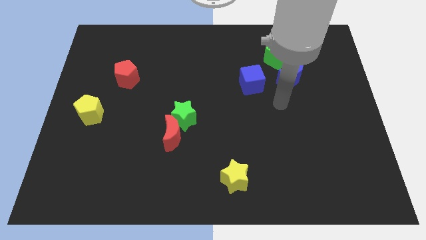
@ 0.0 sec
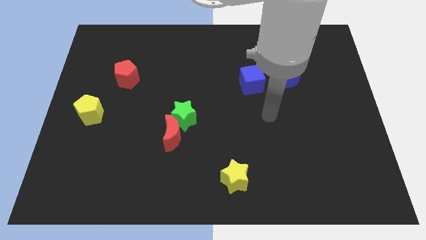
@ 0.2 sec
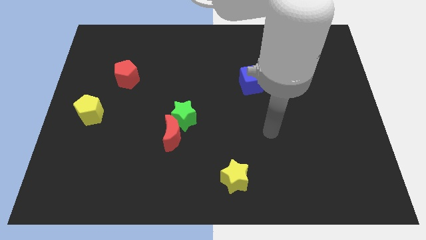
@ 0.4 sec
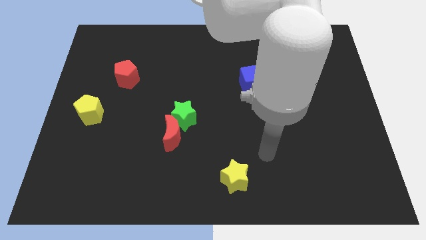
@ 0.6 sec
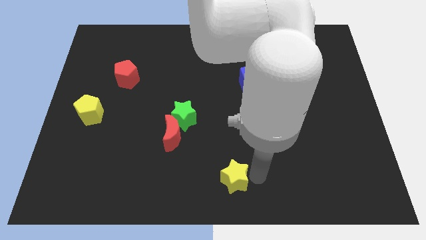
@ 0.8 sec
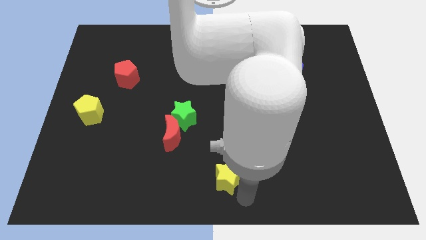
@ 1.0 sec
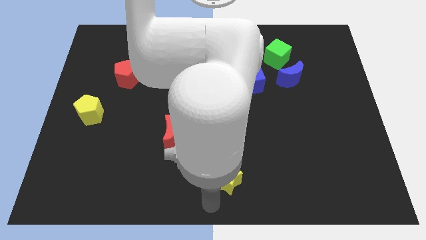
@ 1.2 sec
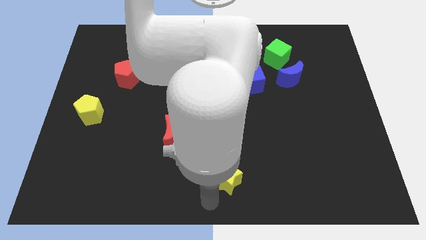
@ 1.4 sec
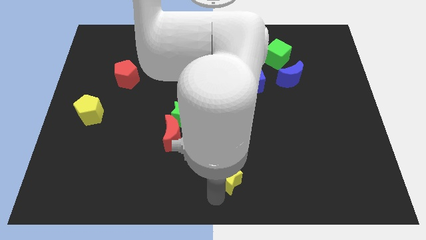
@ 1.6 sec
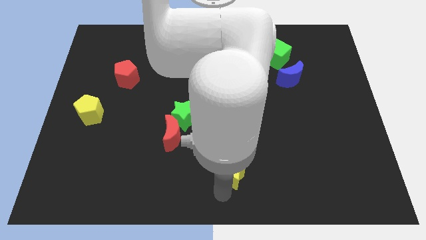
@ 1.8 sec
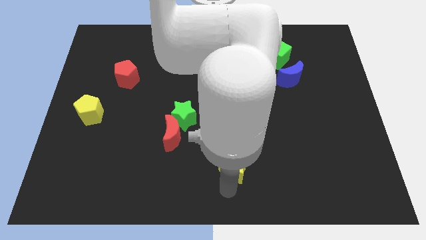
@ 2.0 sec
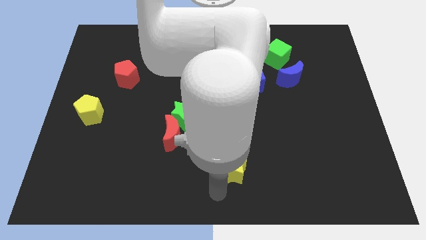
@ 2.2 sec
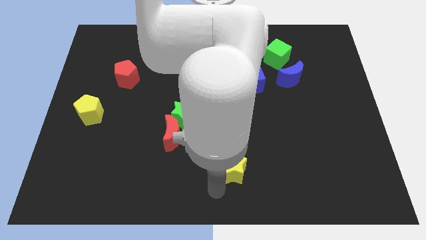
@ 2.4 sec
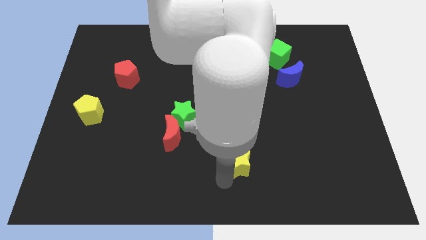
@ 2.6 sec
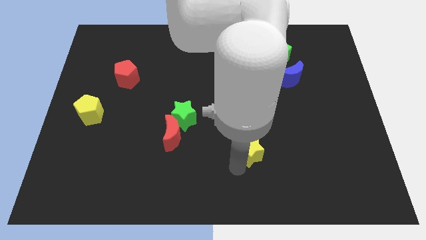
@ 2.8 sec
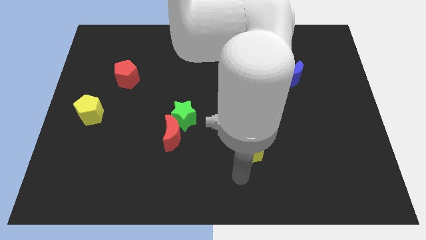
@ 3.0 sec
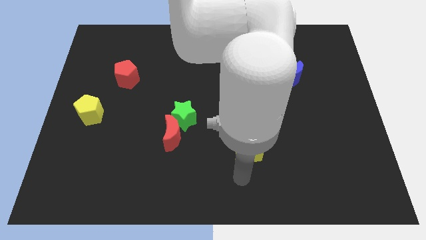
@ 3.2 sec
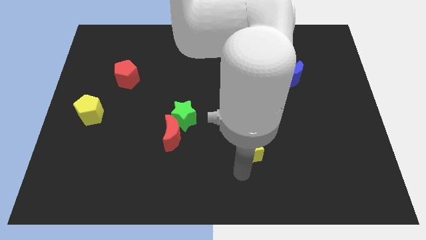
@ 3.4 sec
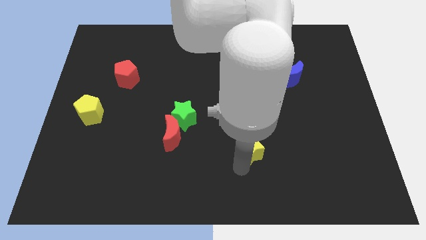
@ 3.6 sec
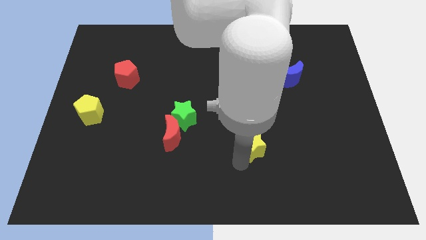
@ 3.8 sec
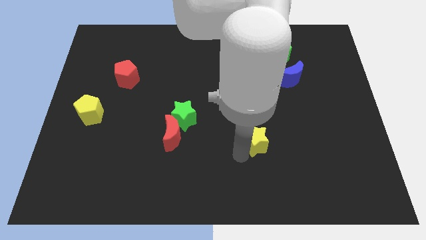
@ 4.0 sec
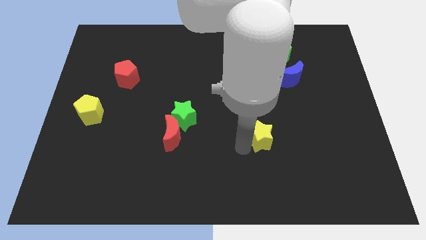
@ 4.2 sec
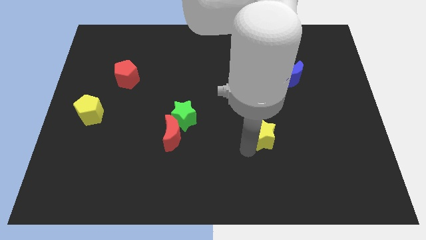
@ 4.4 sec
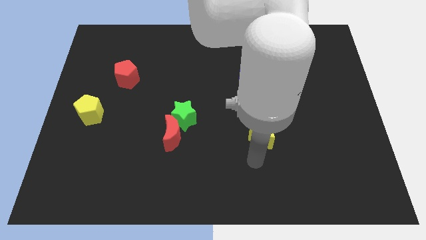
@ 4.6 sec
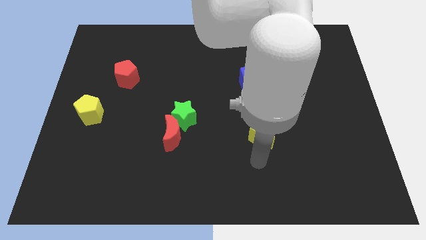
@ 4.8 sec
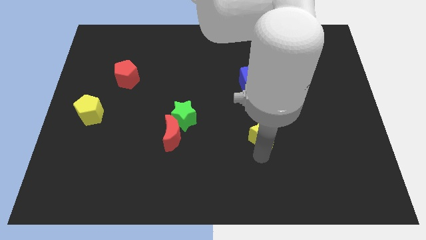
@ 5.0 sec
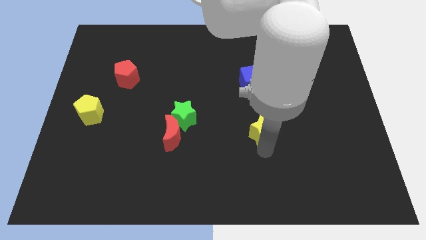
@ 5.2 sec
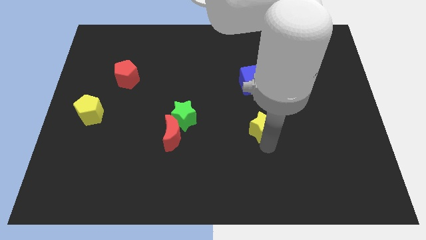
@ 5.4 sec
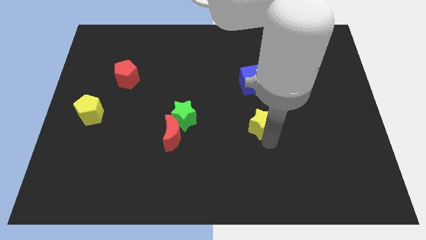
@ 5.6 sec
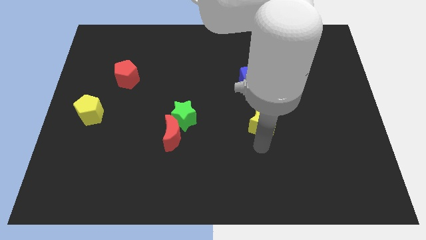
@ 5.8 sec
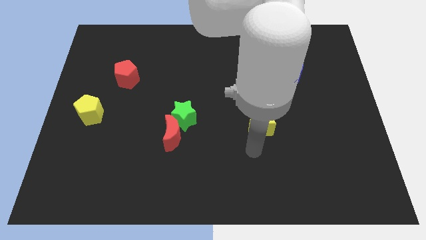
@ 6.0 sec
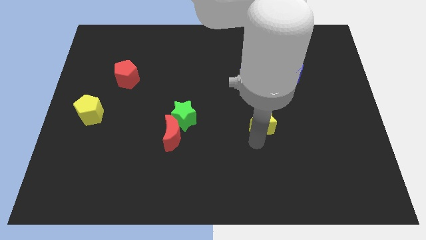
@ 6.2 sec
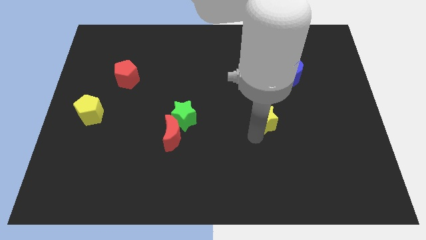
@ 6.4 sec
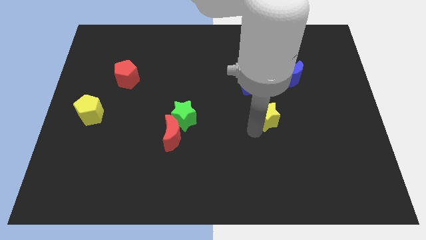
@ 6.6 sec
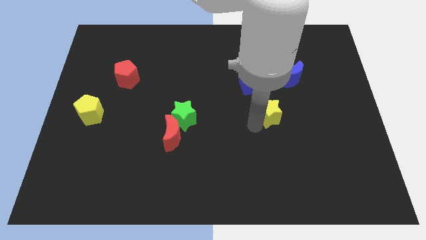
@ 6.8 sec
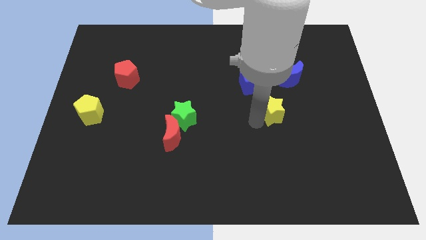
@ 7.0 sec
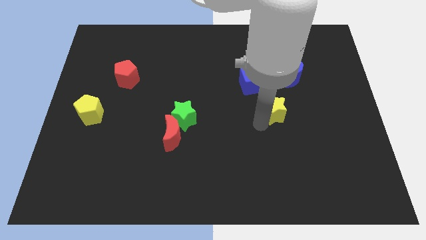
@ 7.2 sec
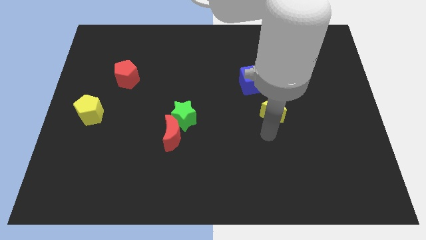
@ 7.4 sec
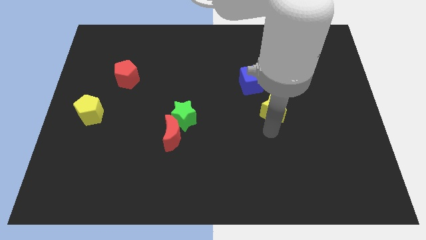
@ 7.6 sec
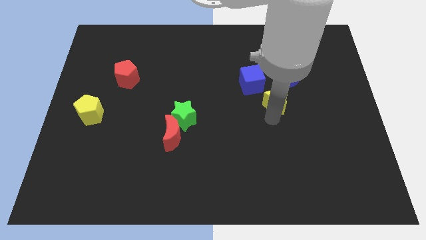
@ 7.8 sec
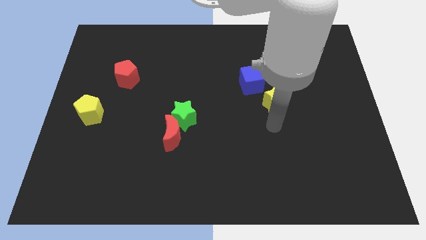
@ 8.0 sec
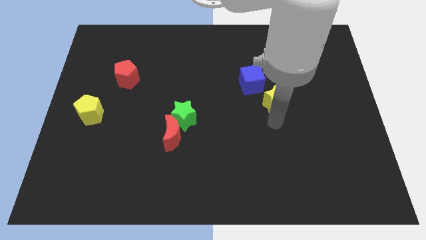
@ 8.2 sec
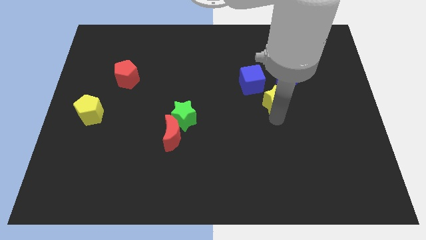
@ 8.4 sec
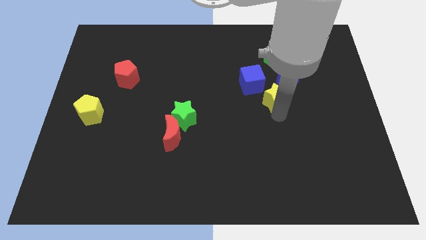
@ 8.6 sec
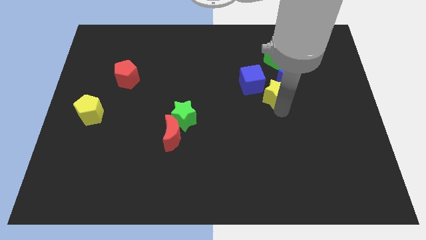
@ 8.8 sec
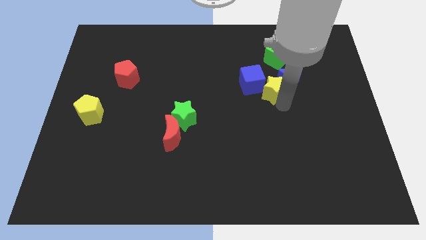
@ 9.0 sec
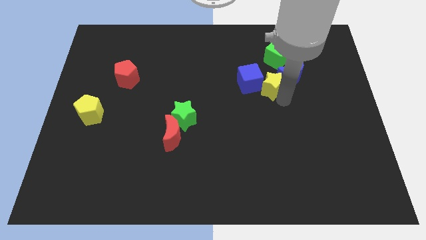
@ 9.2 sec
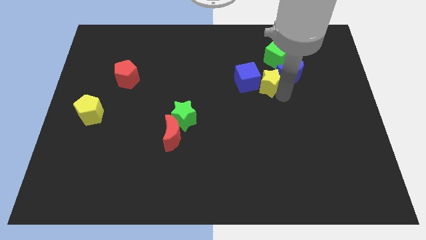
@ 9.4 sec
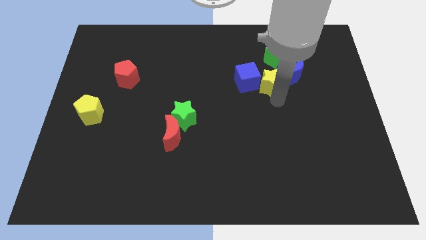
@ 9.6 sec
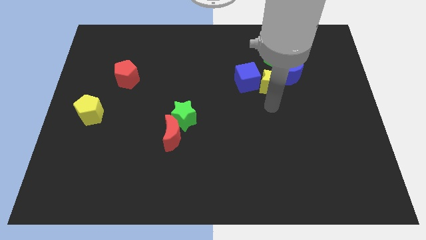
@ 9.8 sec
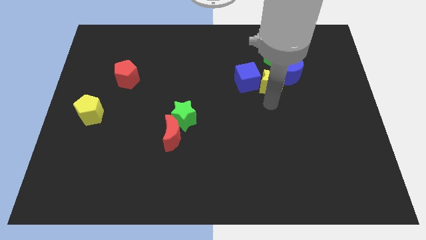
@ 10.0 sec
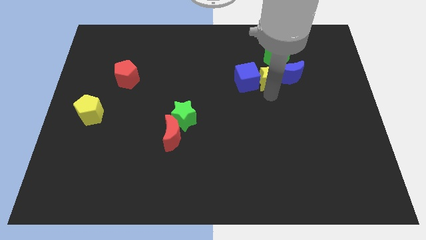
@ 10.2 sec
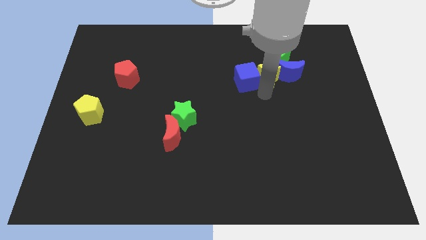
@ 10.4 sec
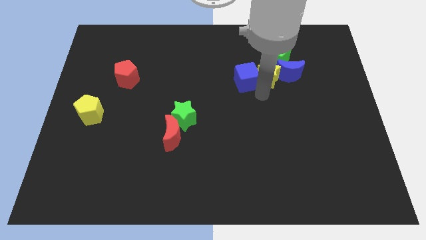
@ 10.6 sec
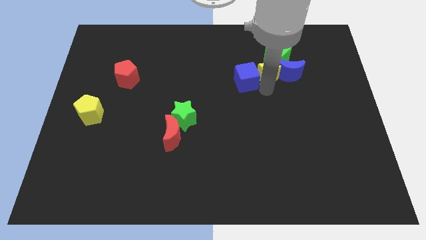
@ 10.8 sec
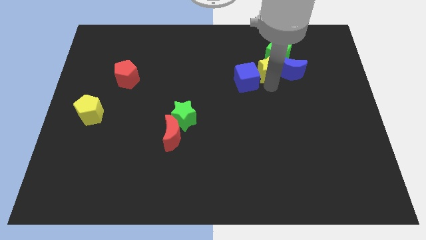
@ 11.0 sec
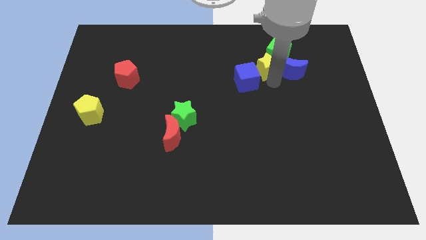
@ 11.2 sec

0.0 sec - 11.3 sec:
move the yellow star close to the green cube

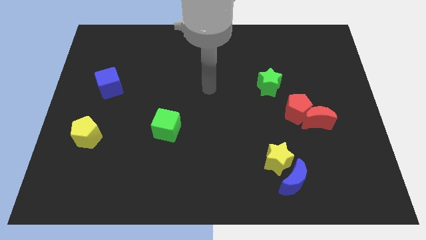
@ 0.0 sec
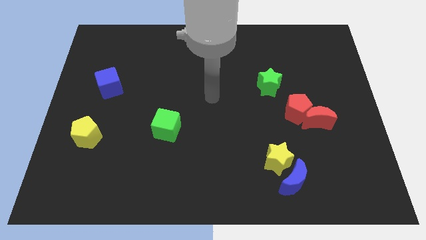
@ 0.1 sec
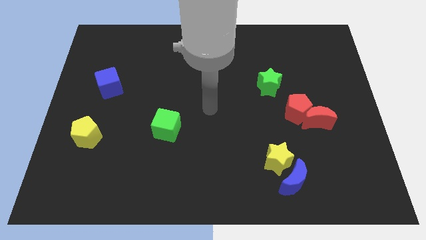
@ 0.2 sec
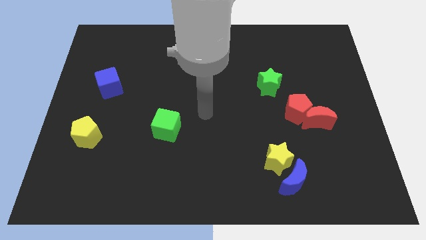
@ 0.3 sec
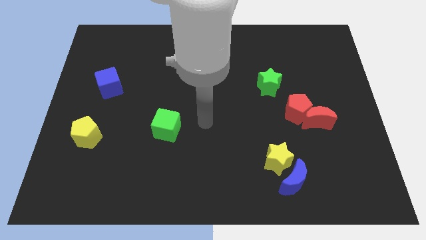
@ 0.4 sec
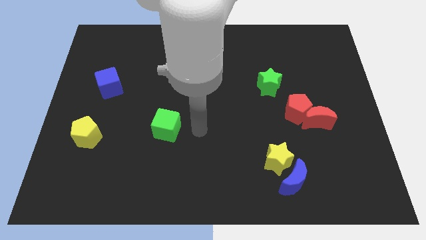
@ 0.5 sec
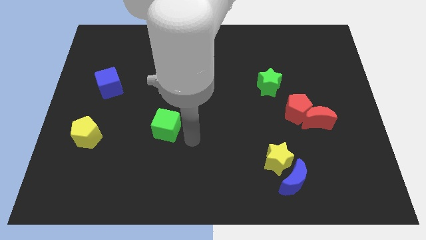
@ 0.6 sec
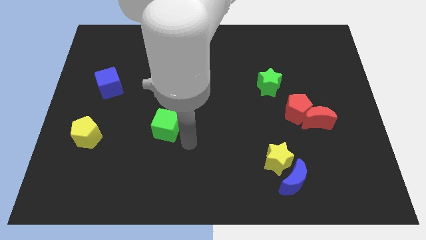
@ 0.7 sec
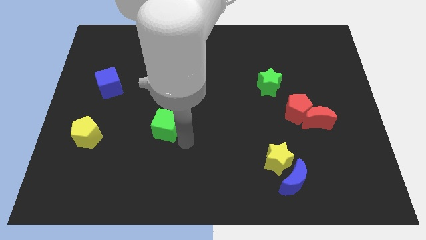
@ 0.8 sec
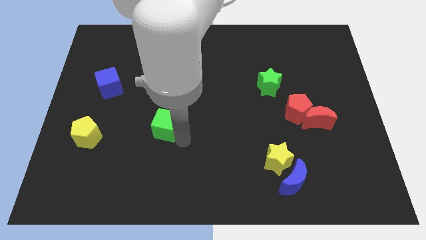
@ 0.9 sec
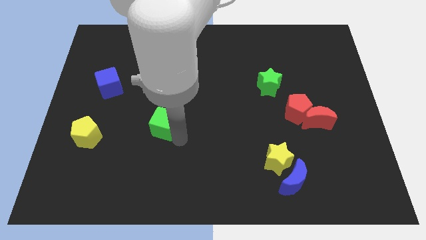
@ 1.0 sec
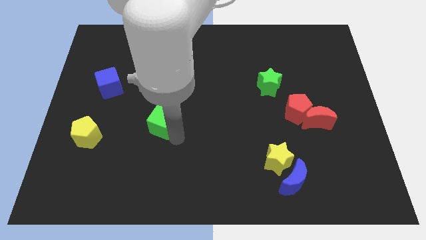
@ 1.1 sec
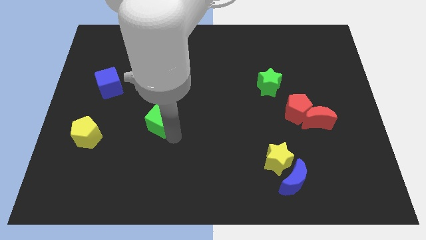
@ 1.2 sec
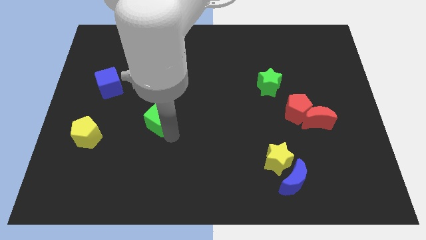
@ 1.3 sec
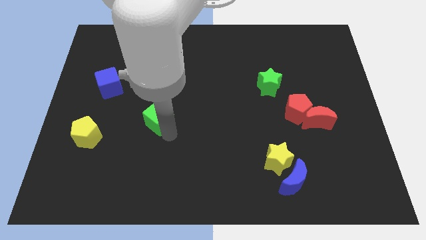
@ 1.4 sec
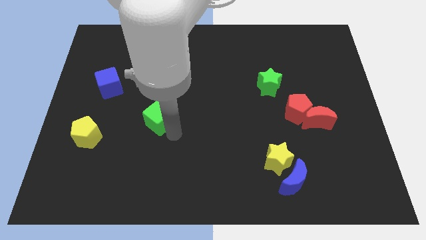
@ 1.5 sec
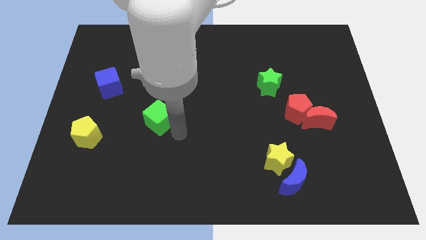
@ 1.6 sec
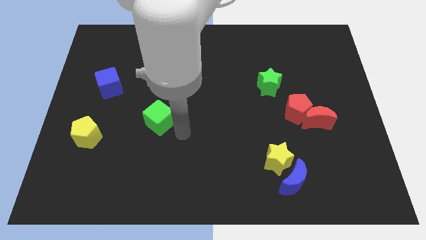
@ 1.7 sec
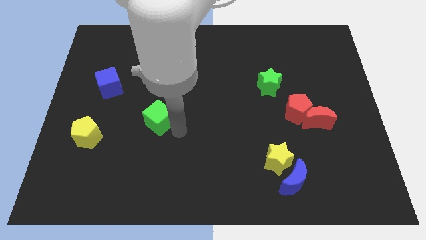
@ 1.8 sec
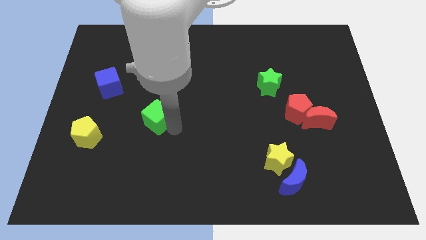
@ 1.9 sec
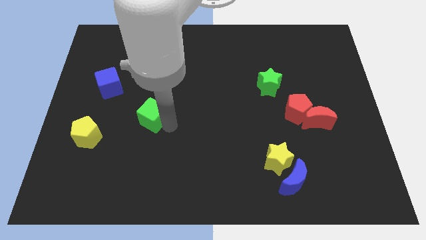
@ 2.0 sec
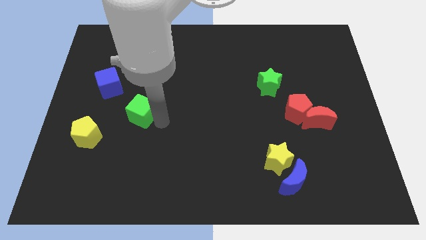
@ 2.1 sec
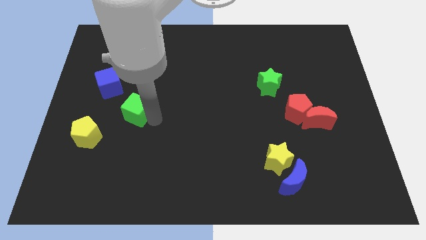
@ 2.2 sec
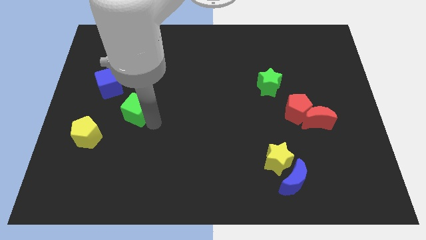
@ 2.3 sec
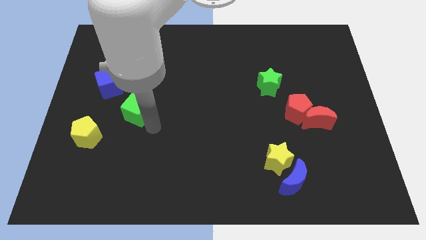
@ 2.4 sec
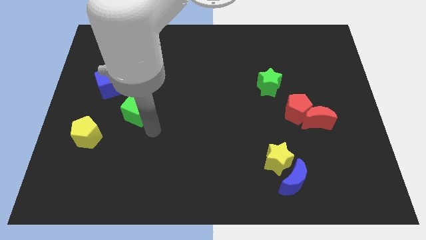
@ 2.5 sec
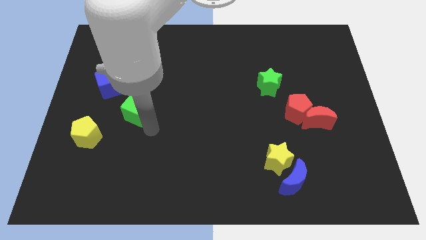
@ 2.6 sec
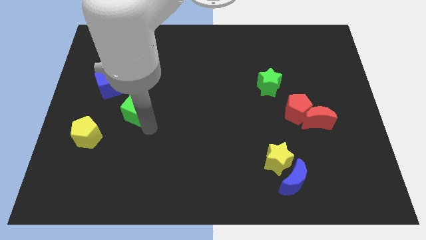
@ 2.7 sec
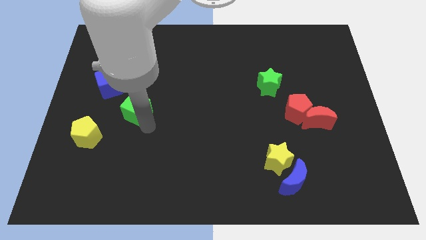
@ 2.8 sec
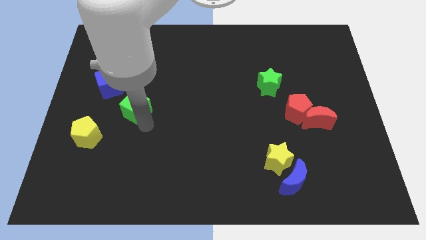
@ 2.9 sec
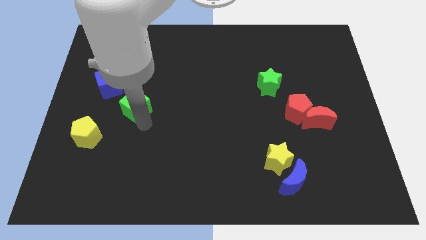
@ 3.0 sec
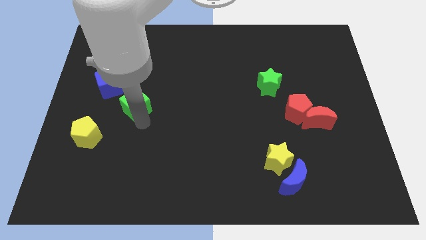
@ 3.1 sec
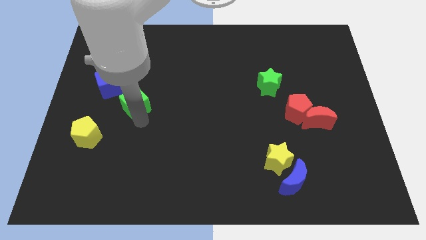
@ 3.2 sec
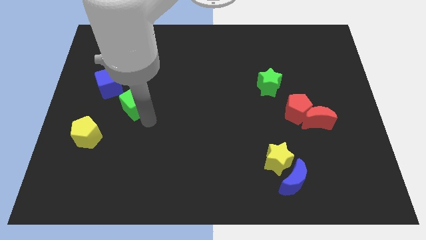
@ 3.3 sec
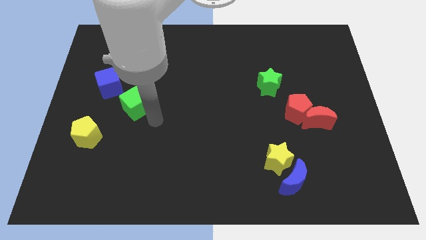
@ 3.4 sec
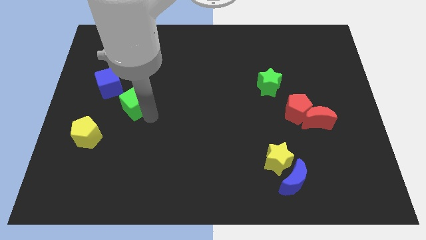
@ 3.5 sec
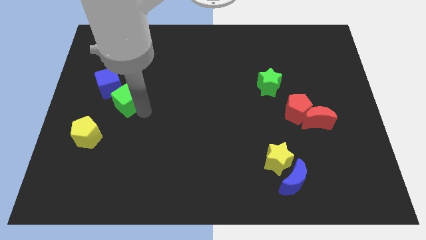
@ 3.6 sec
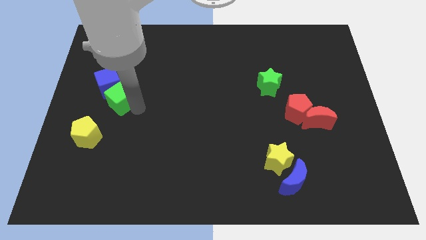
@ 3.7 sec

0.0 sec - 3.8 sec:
put the green cube next to the blue cube
